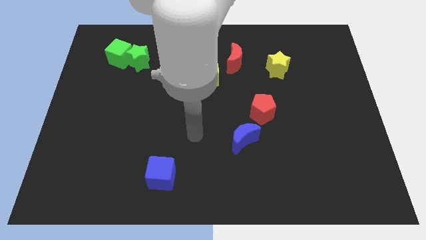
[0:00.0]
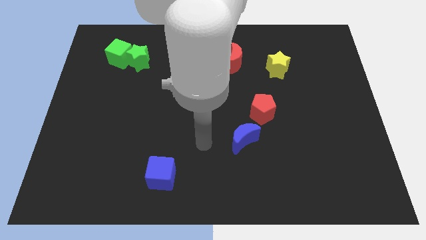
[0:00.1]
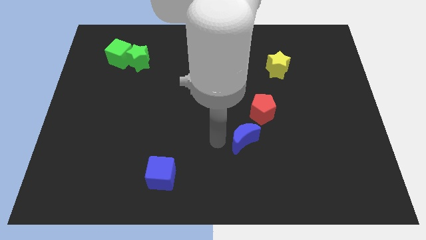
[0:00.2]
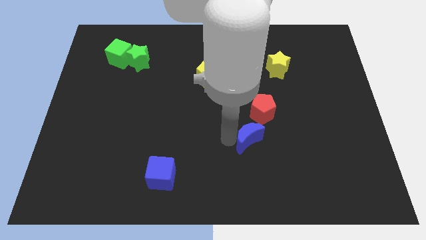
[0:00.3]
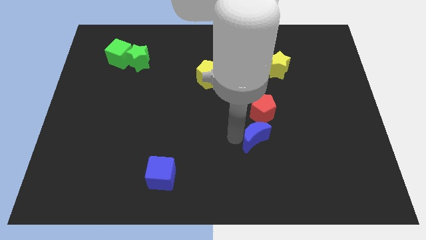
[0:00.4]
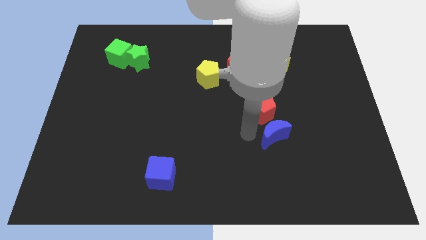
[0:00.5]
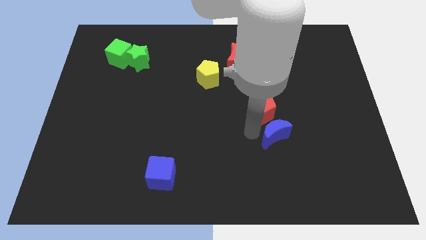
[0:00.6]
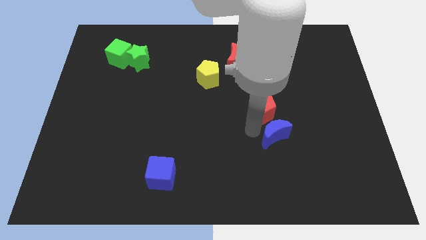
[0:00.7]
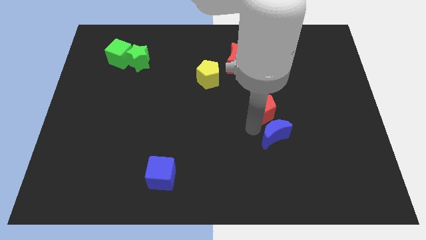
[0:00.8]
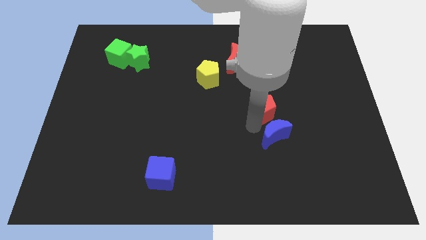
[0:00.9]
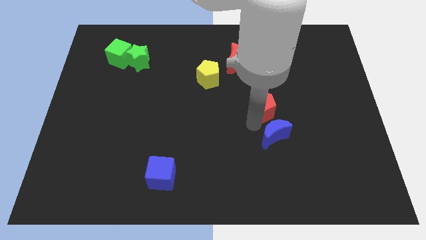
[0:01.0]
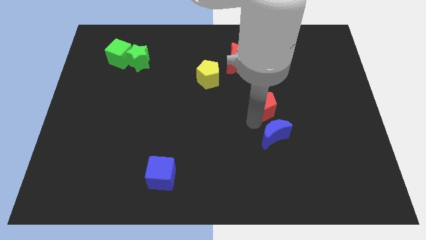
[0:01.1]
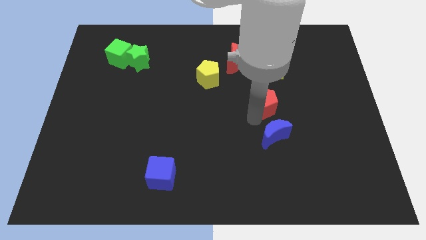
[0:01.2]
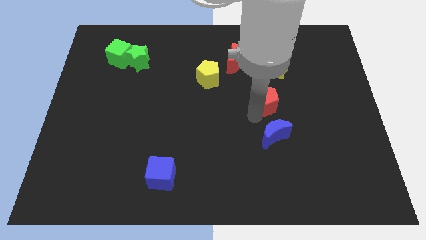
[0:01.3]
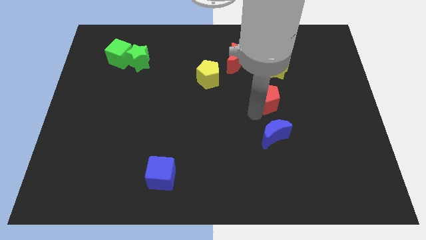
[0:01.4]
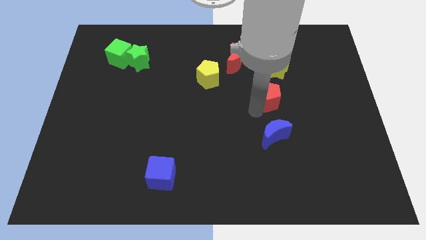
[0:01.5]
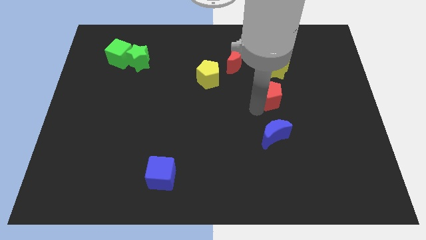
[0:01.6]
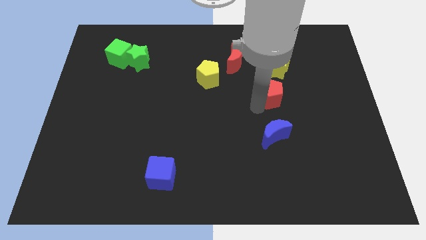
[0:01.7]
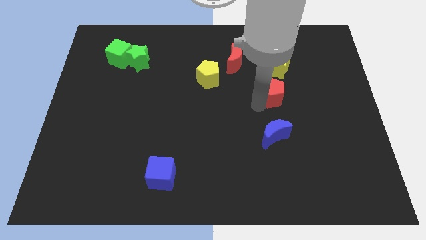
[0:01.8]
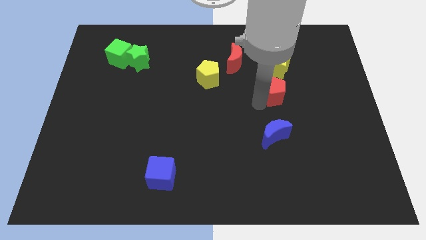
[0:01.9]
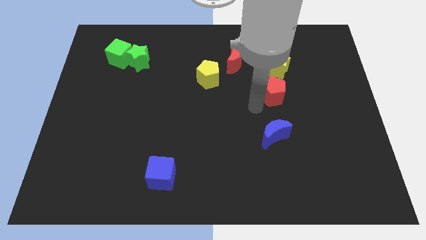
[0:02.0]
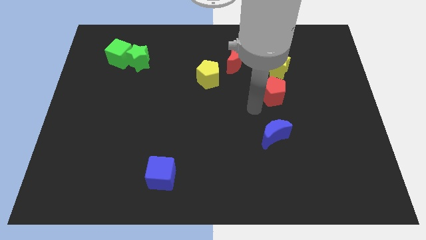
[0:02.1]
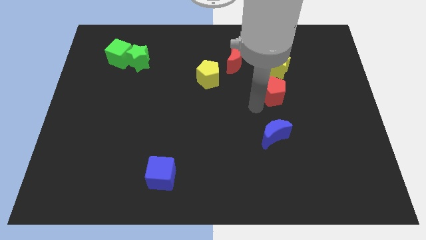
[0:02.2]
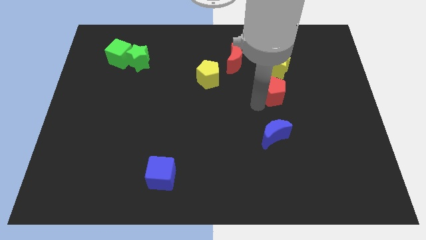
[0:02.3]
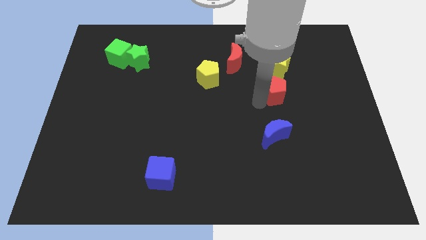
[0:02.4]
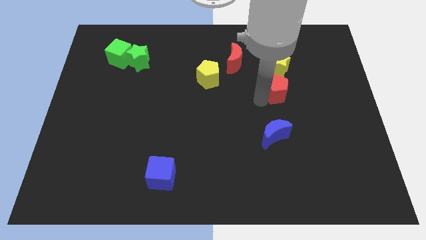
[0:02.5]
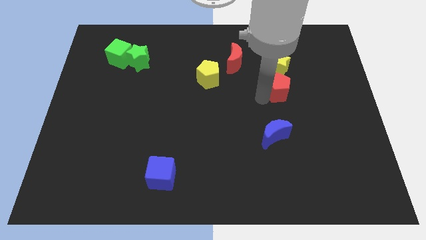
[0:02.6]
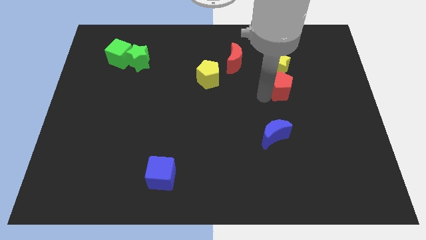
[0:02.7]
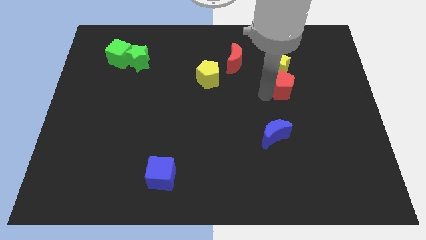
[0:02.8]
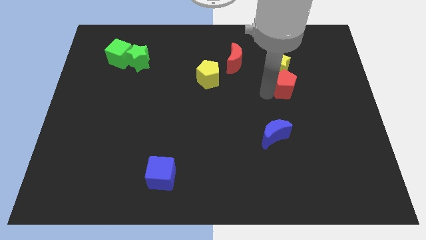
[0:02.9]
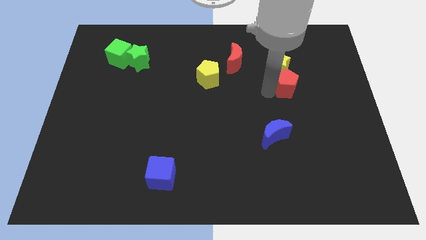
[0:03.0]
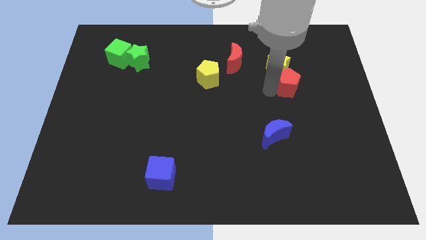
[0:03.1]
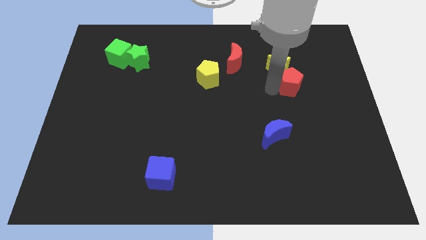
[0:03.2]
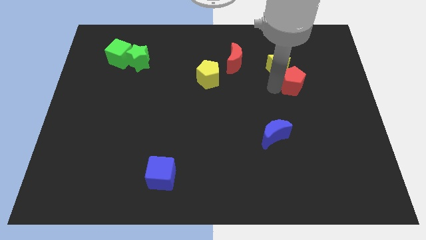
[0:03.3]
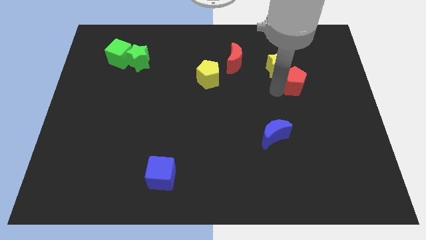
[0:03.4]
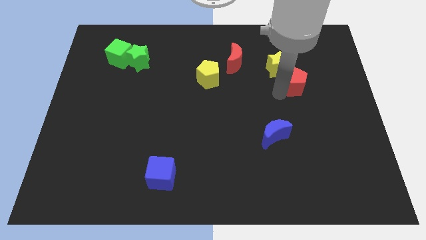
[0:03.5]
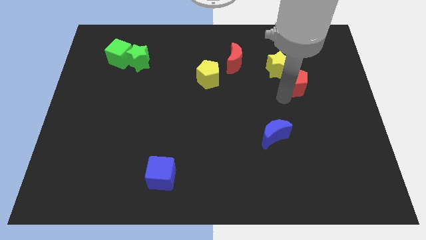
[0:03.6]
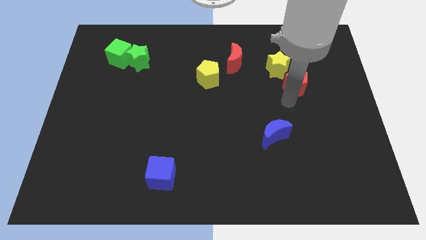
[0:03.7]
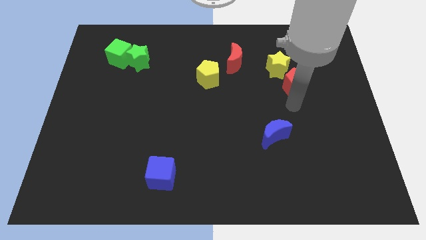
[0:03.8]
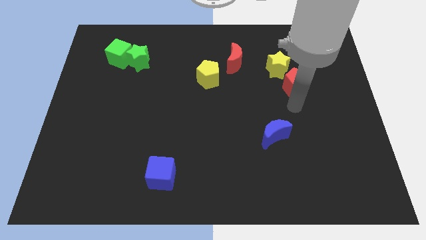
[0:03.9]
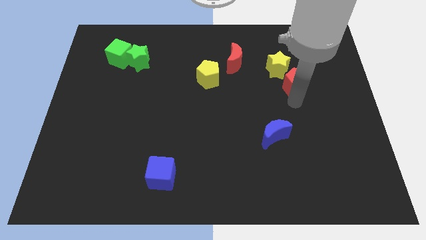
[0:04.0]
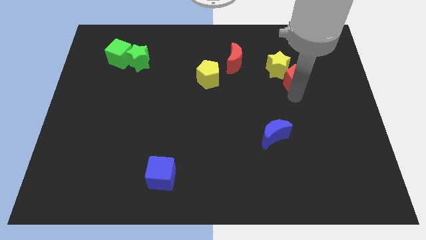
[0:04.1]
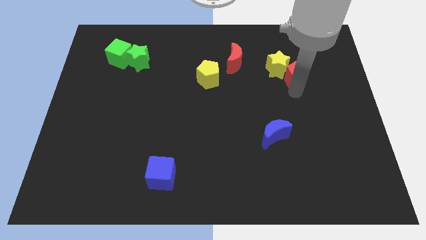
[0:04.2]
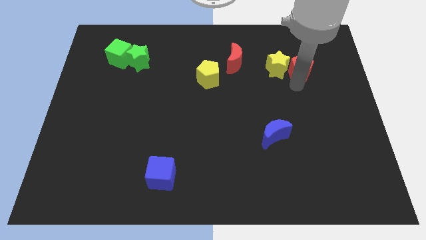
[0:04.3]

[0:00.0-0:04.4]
put the red pentagon diagonally up and to the right of the yellow star

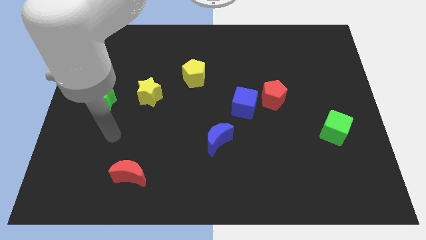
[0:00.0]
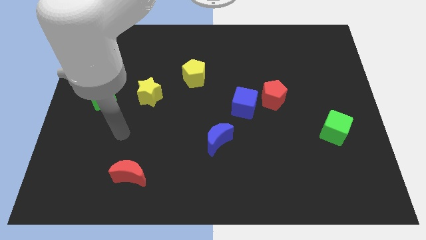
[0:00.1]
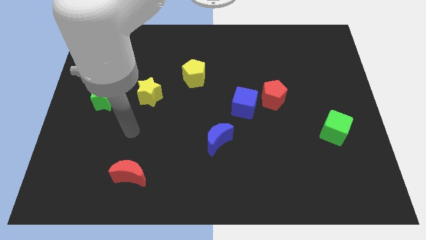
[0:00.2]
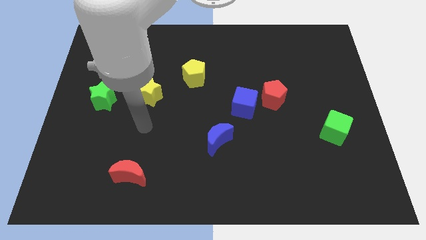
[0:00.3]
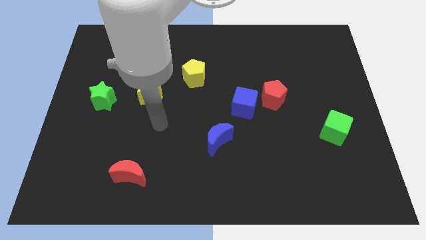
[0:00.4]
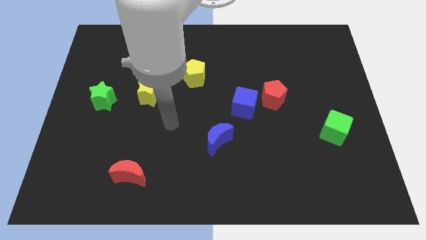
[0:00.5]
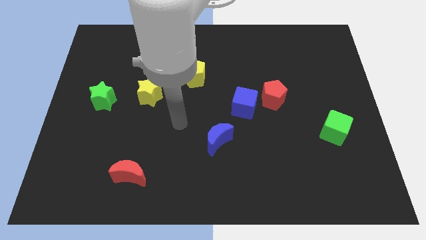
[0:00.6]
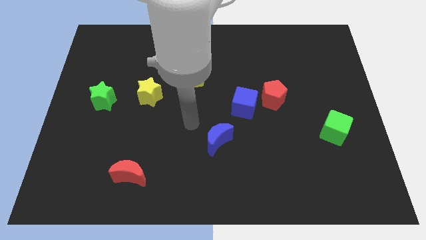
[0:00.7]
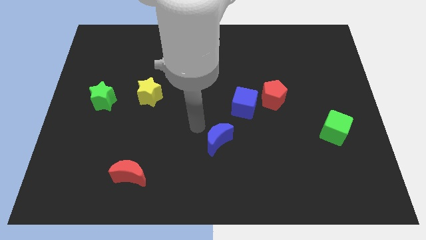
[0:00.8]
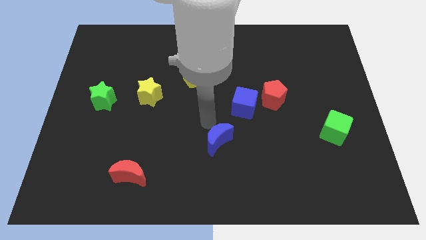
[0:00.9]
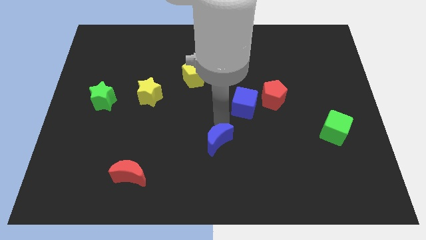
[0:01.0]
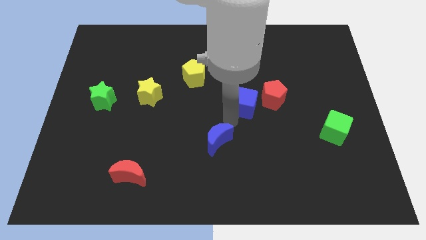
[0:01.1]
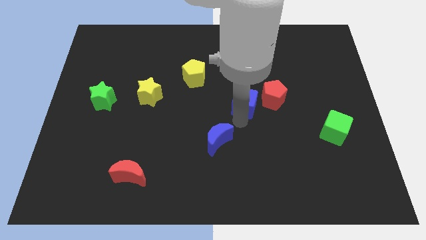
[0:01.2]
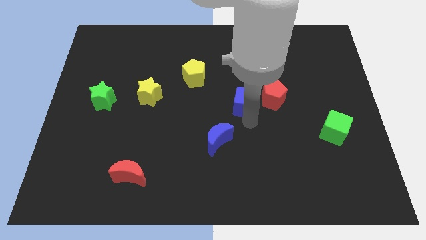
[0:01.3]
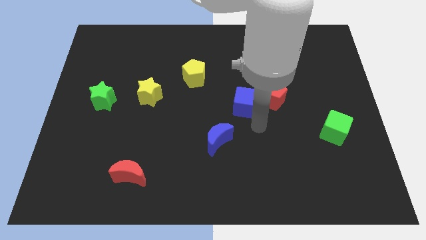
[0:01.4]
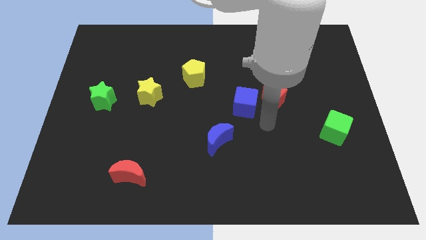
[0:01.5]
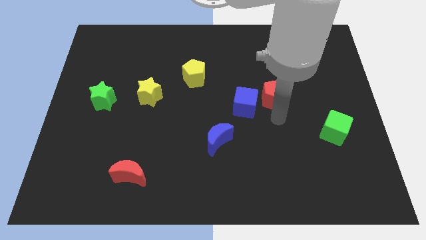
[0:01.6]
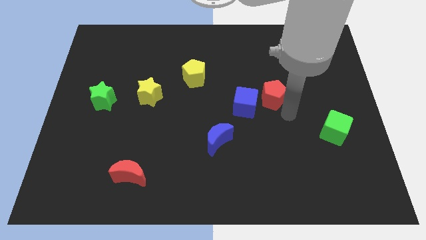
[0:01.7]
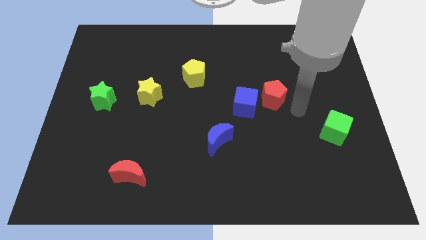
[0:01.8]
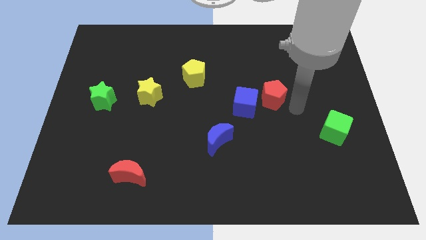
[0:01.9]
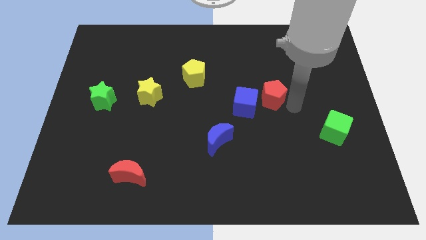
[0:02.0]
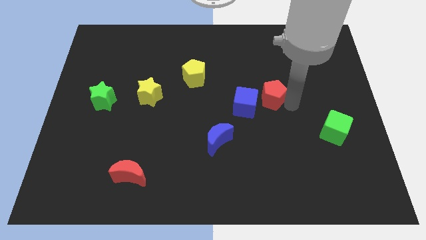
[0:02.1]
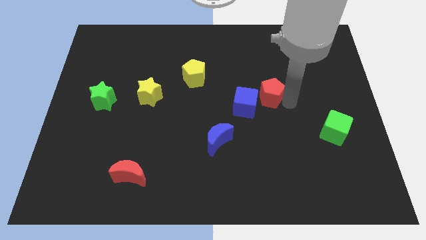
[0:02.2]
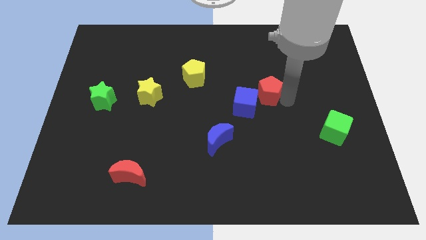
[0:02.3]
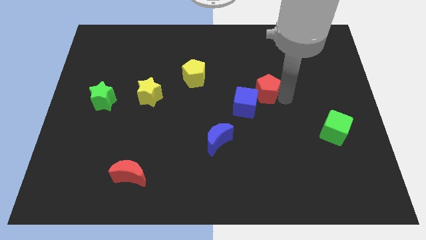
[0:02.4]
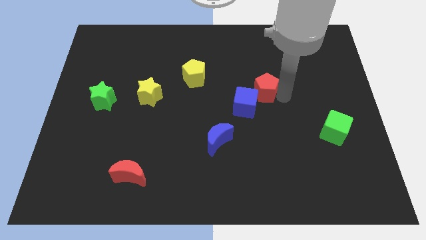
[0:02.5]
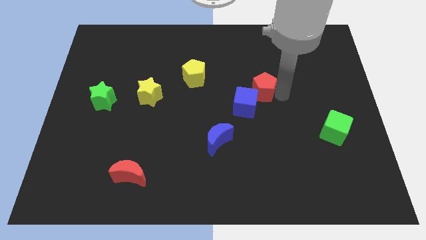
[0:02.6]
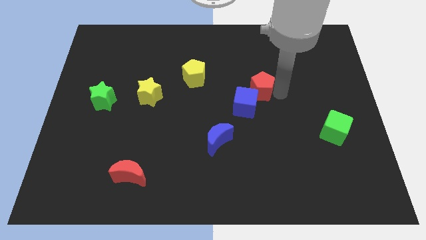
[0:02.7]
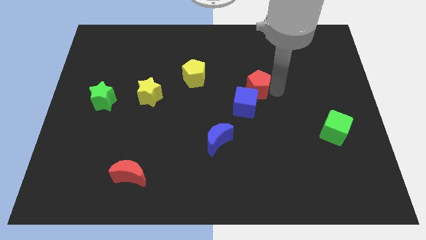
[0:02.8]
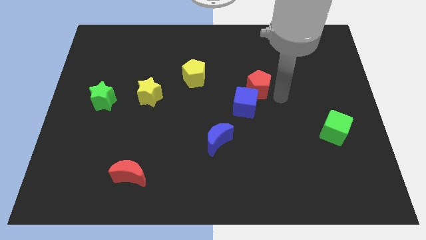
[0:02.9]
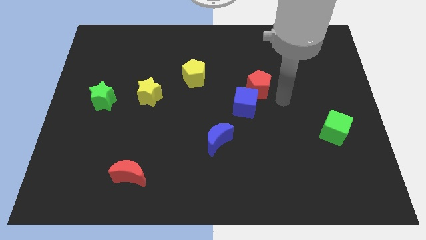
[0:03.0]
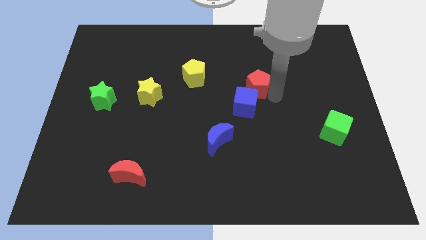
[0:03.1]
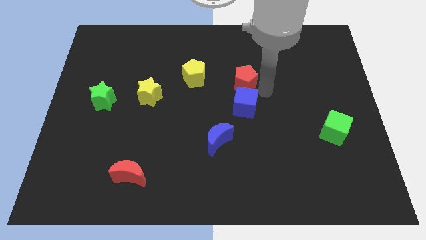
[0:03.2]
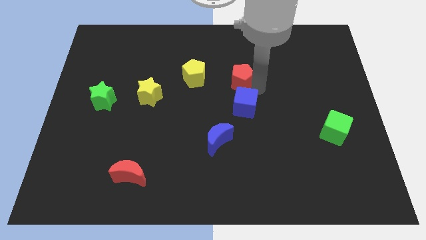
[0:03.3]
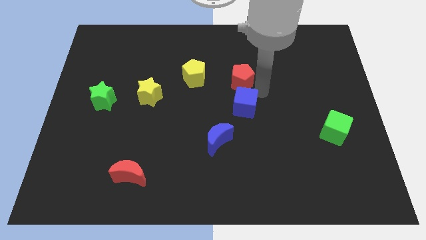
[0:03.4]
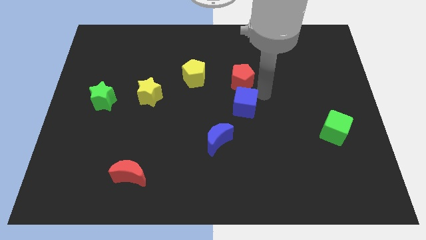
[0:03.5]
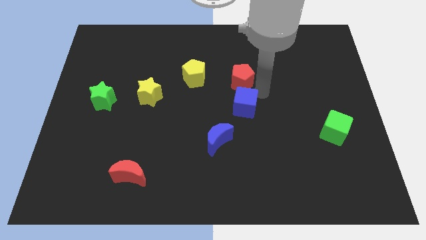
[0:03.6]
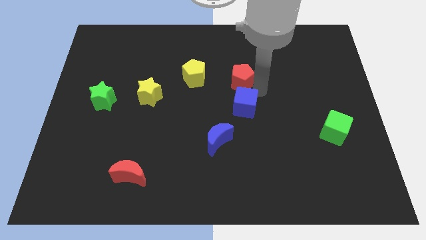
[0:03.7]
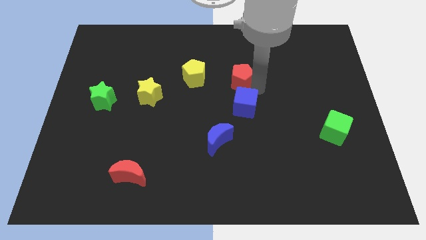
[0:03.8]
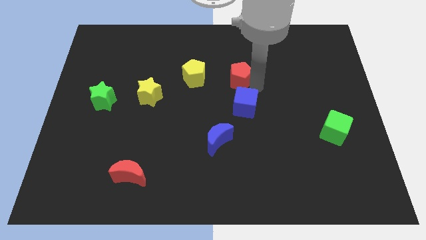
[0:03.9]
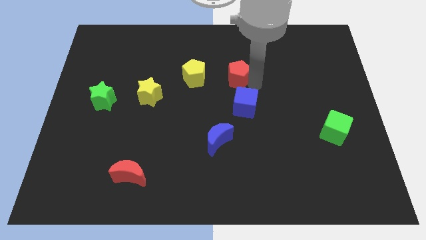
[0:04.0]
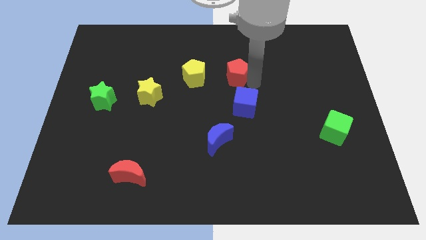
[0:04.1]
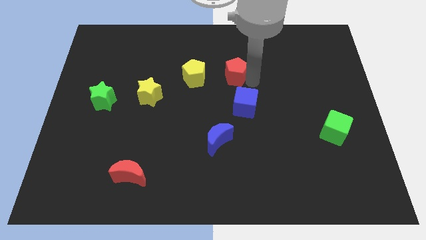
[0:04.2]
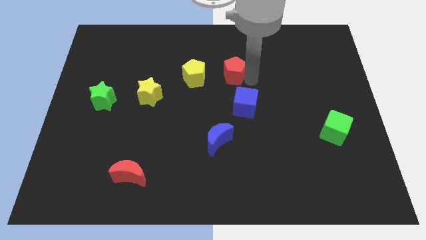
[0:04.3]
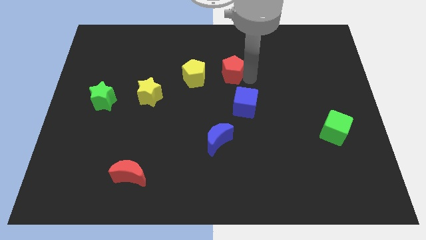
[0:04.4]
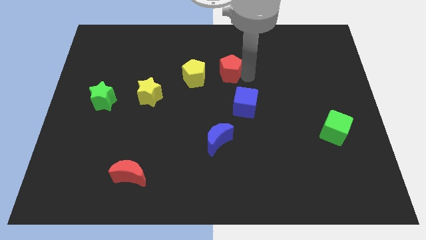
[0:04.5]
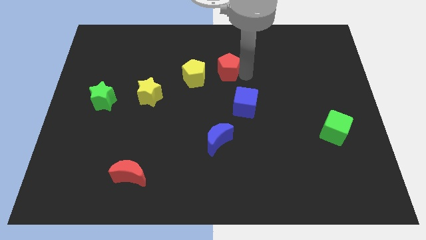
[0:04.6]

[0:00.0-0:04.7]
put the red pentagon diagonally up and to the right of the yellow pentagon
